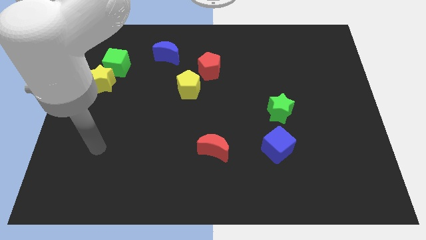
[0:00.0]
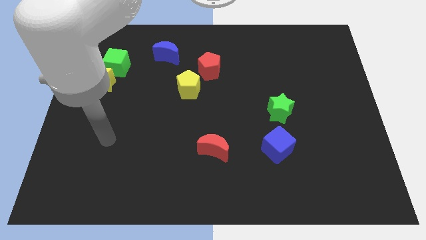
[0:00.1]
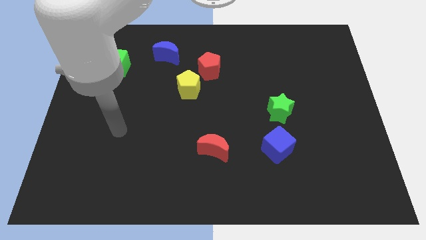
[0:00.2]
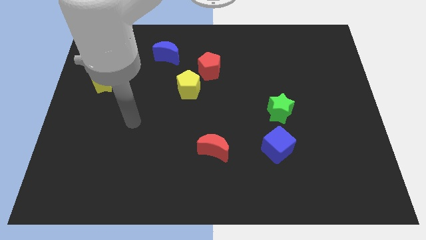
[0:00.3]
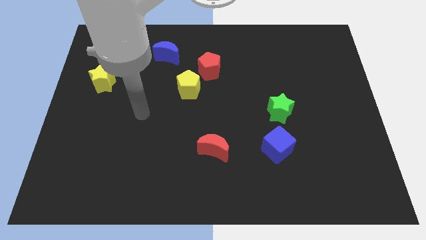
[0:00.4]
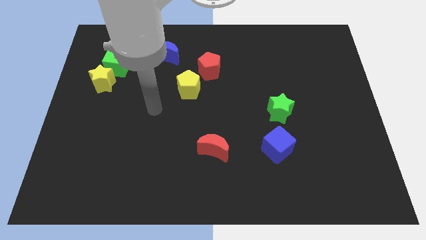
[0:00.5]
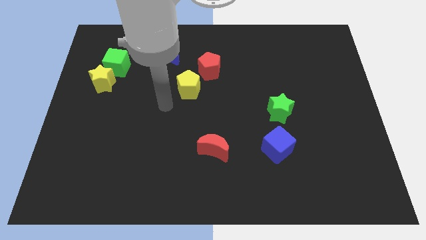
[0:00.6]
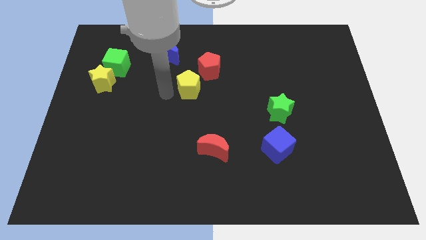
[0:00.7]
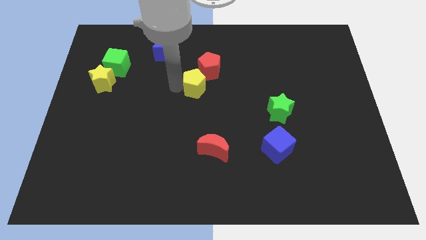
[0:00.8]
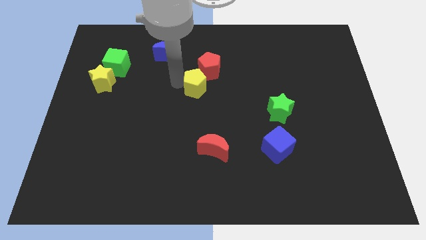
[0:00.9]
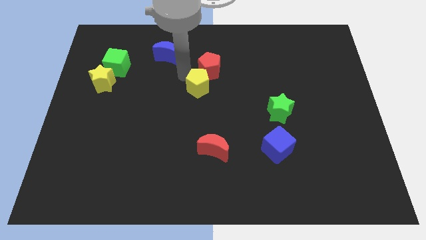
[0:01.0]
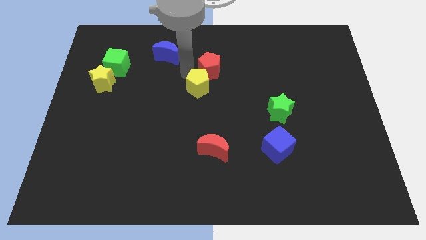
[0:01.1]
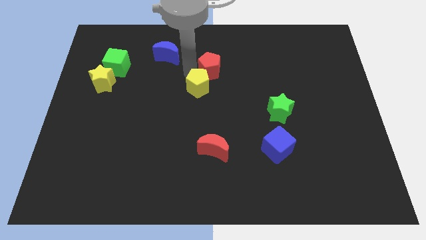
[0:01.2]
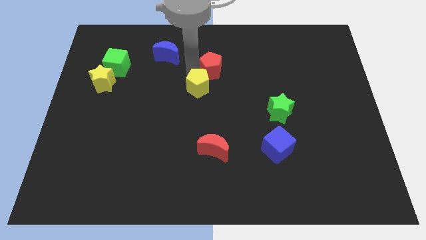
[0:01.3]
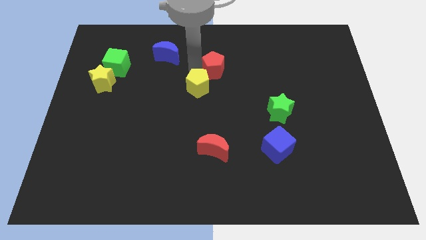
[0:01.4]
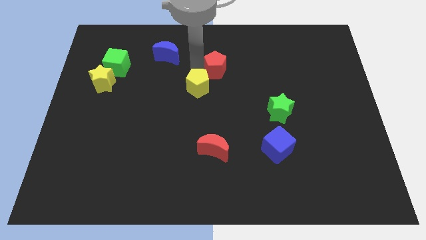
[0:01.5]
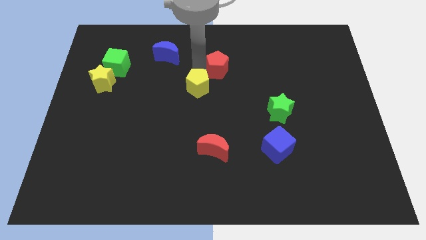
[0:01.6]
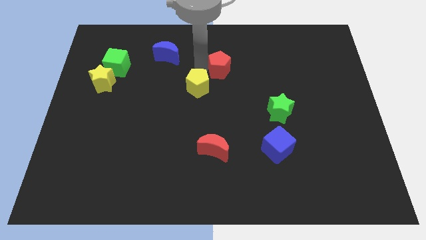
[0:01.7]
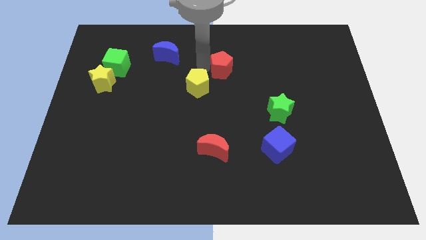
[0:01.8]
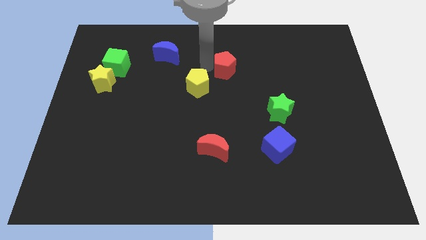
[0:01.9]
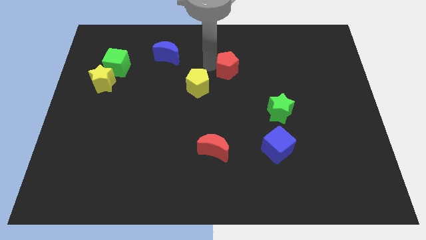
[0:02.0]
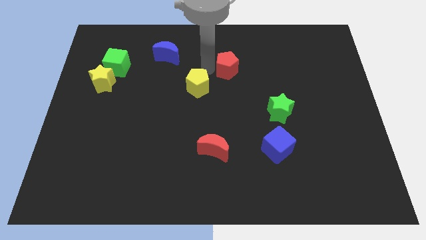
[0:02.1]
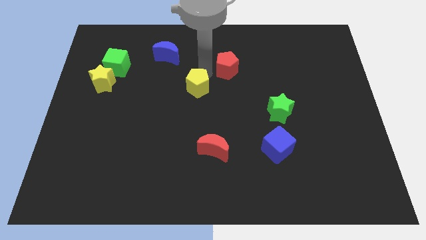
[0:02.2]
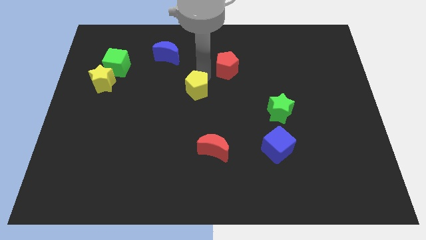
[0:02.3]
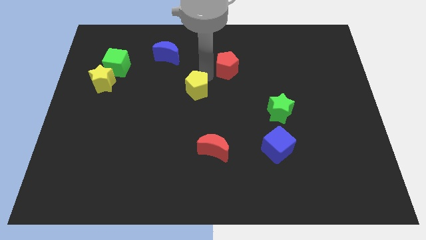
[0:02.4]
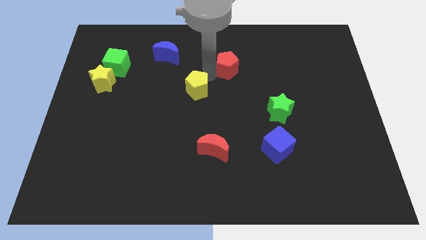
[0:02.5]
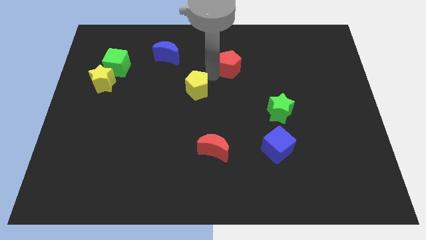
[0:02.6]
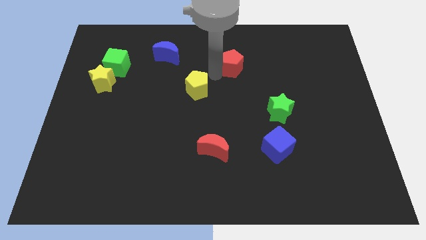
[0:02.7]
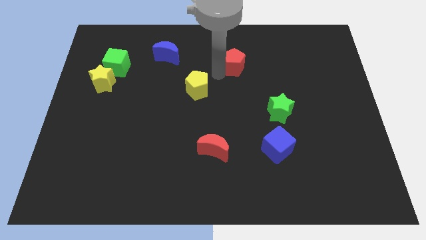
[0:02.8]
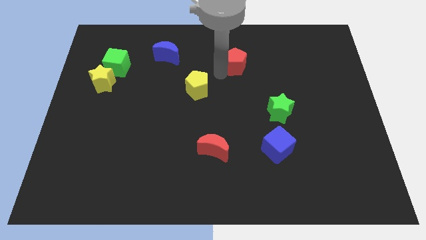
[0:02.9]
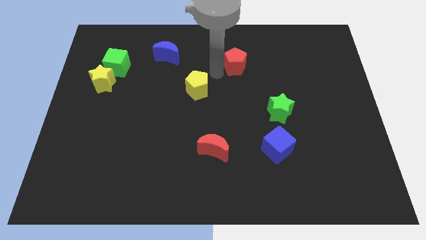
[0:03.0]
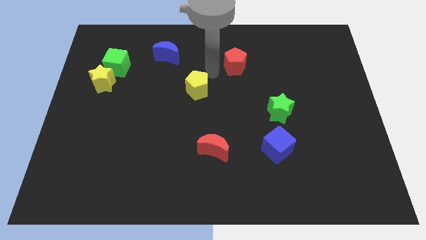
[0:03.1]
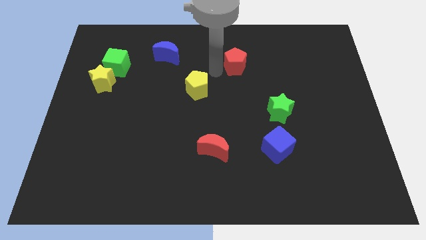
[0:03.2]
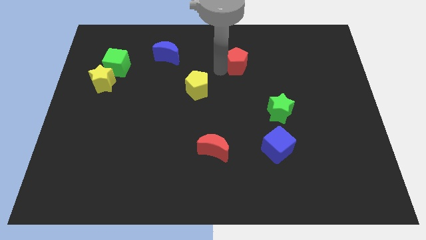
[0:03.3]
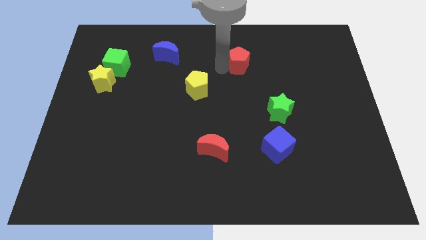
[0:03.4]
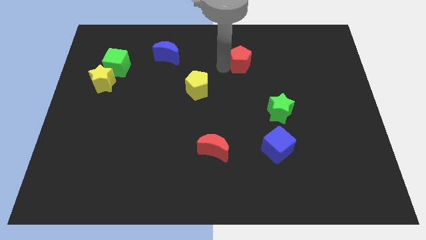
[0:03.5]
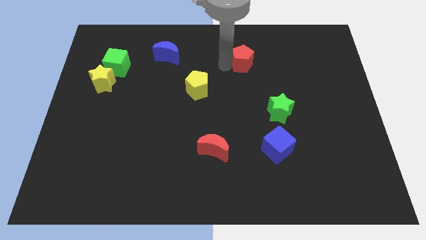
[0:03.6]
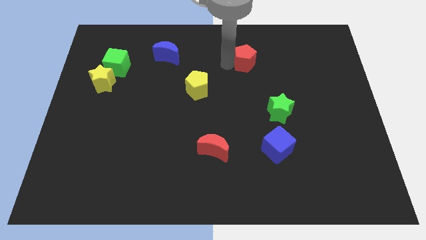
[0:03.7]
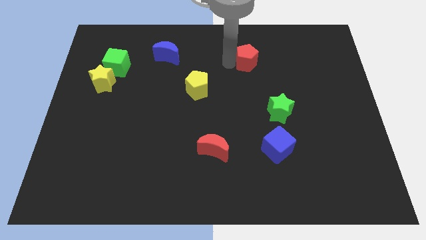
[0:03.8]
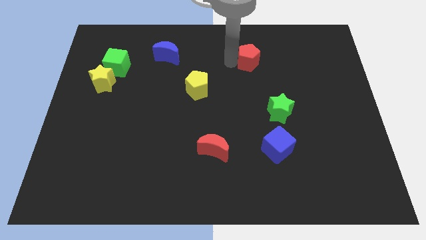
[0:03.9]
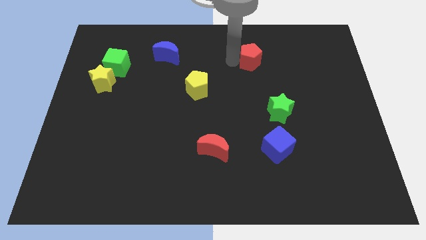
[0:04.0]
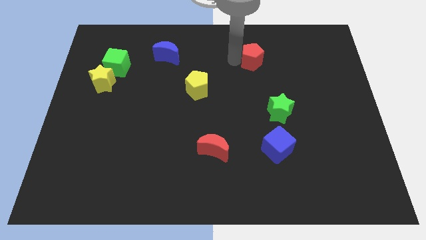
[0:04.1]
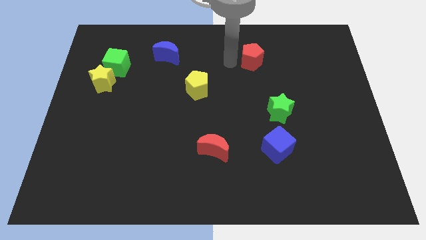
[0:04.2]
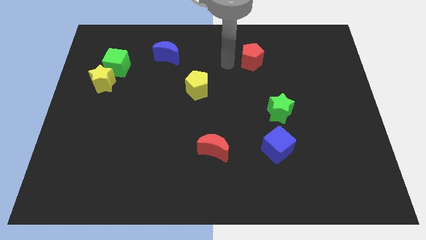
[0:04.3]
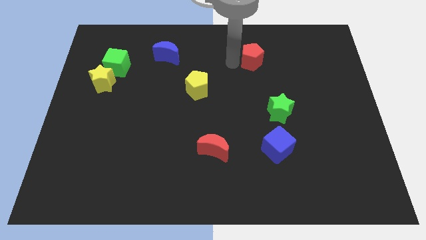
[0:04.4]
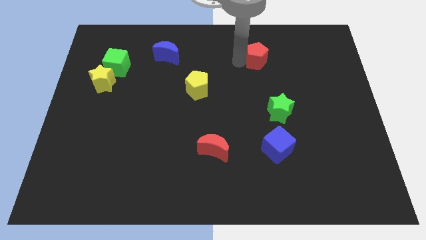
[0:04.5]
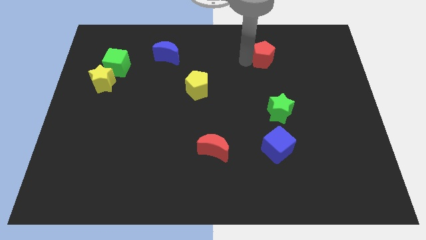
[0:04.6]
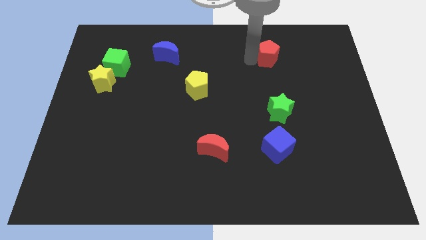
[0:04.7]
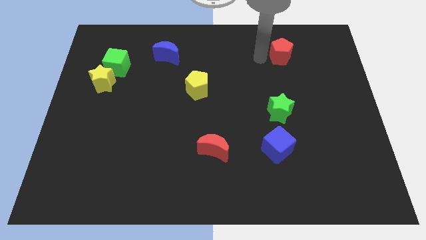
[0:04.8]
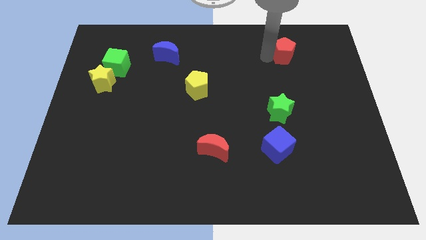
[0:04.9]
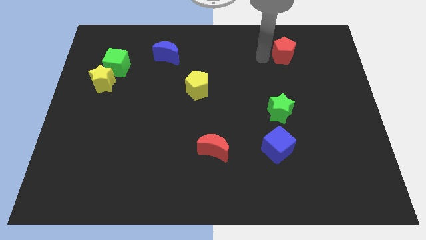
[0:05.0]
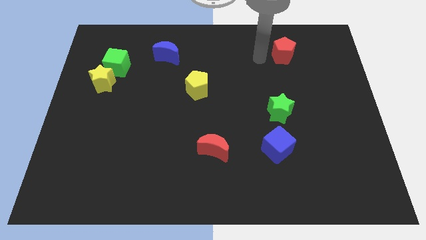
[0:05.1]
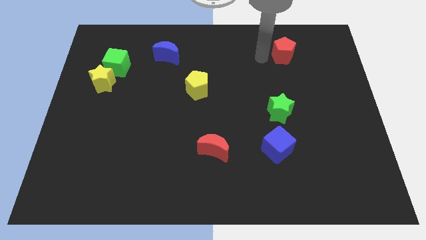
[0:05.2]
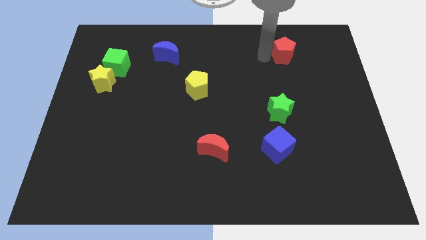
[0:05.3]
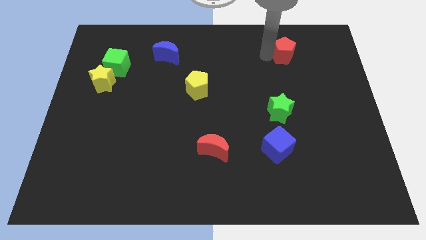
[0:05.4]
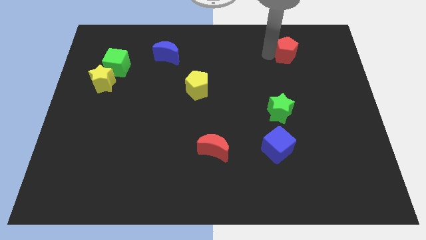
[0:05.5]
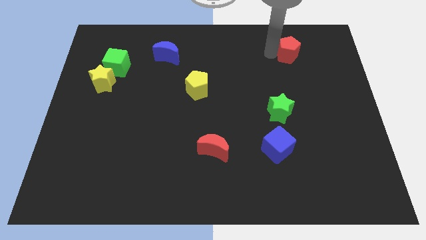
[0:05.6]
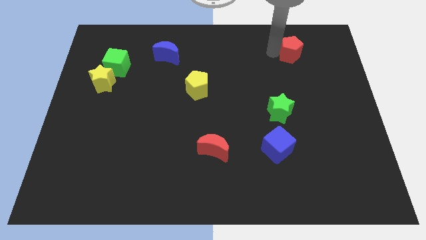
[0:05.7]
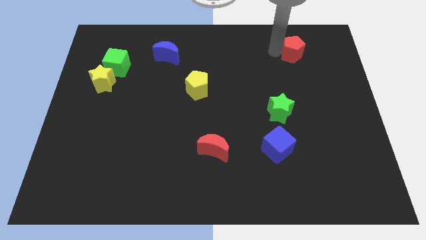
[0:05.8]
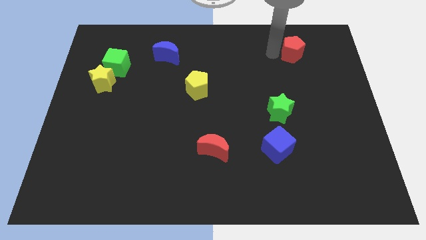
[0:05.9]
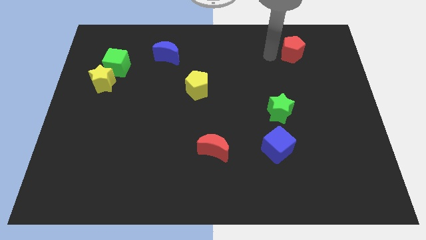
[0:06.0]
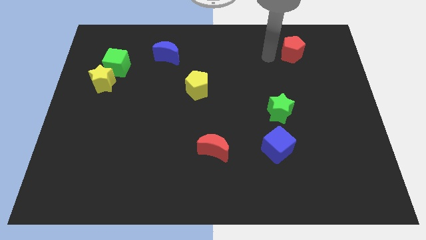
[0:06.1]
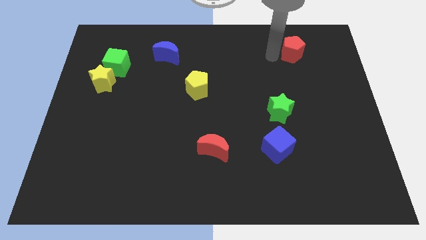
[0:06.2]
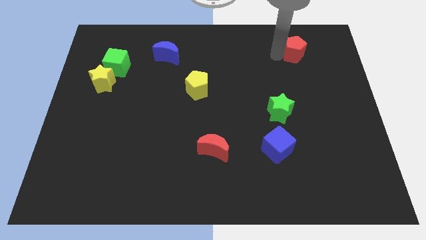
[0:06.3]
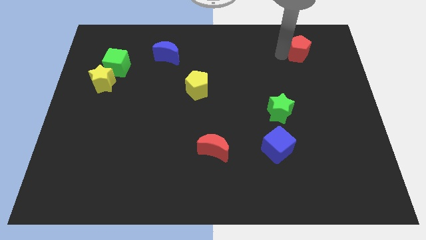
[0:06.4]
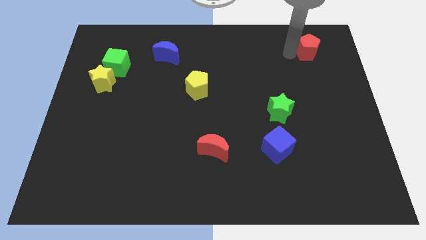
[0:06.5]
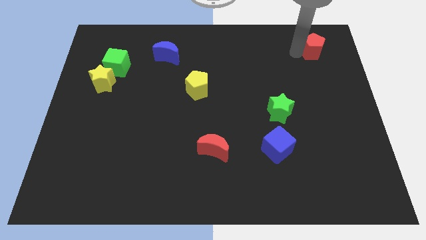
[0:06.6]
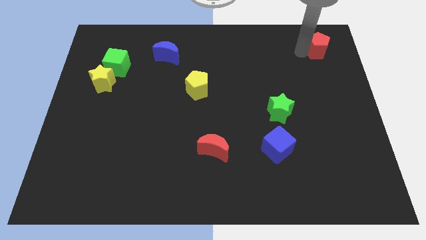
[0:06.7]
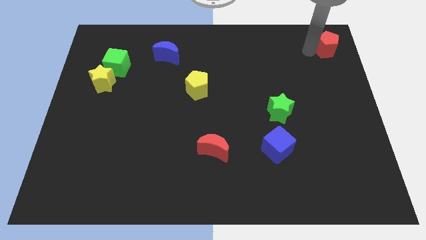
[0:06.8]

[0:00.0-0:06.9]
slide the red pentagon to the top right corner
